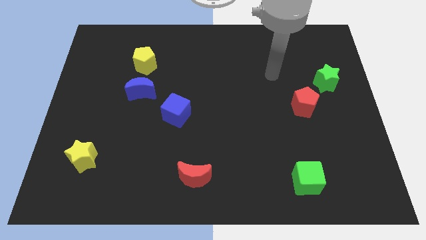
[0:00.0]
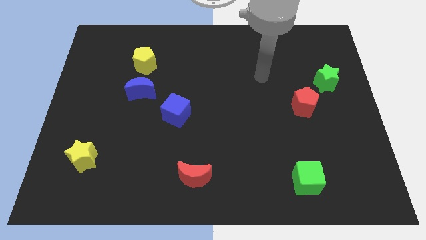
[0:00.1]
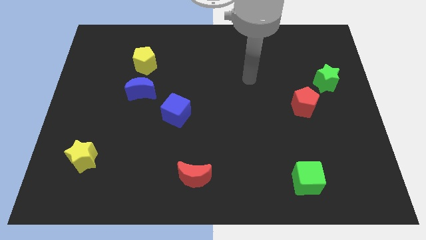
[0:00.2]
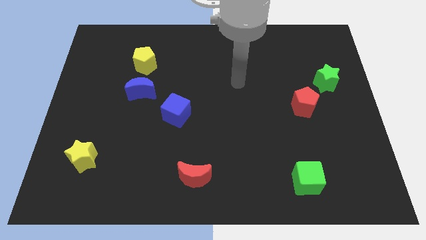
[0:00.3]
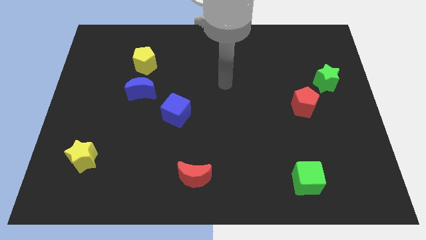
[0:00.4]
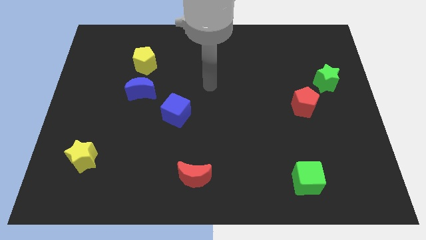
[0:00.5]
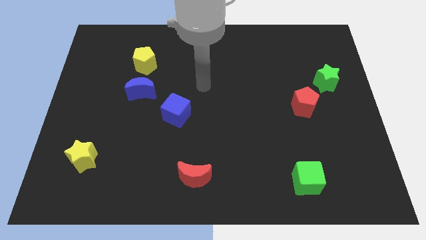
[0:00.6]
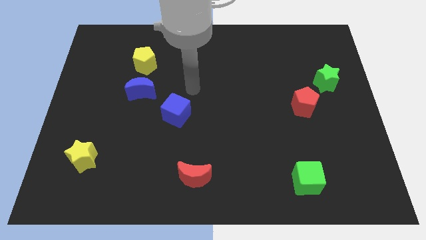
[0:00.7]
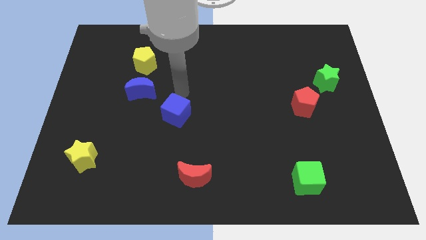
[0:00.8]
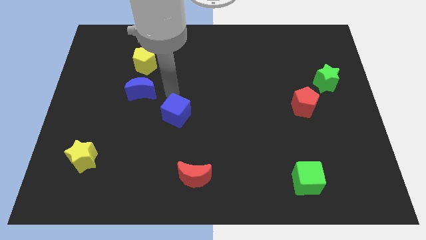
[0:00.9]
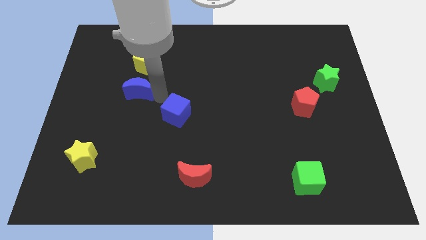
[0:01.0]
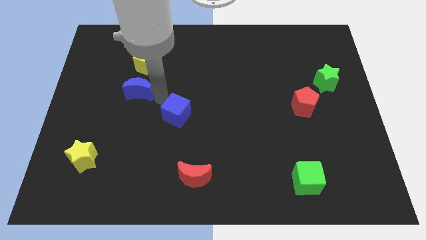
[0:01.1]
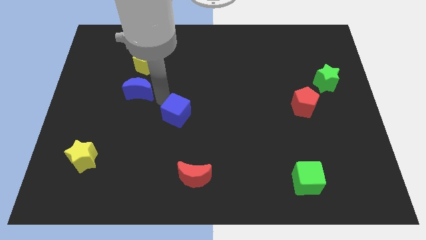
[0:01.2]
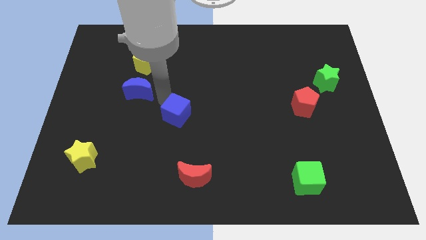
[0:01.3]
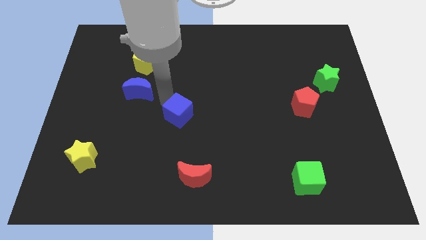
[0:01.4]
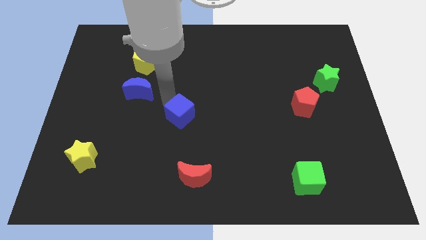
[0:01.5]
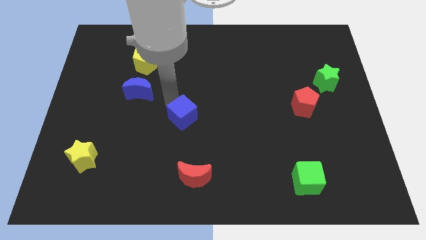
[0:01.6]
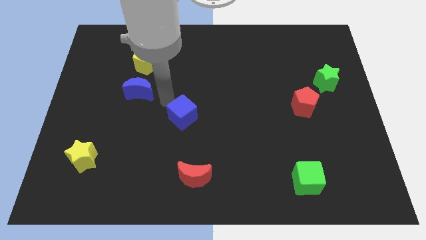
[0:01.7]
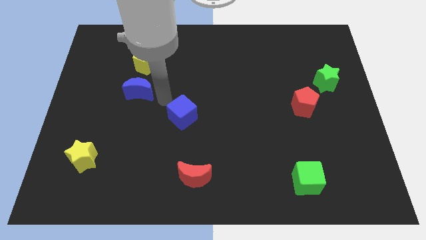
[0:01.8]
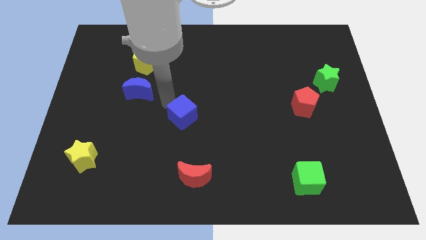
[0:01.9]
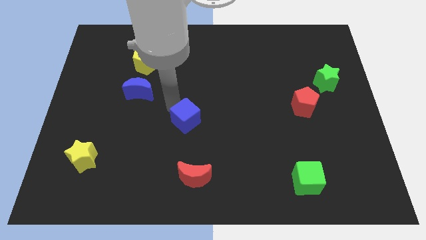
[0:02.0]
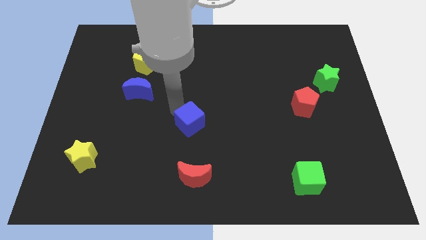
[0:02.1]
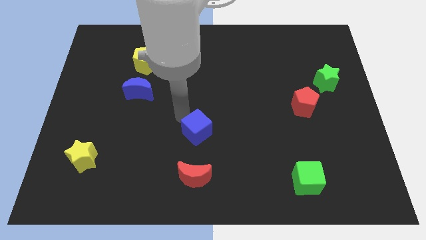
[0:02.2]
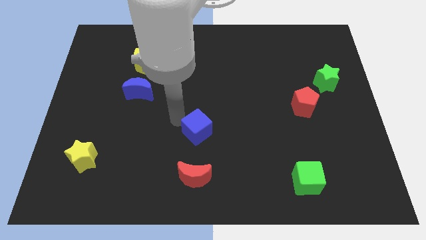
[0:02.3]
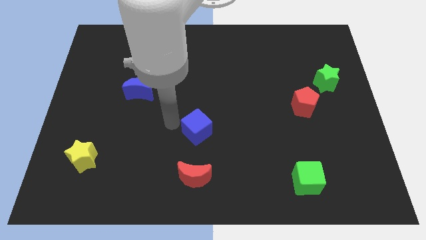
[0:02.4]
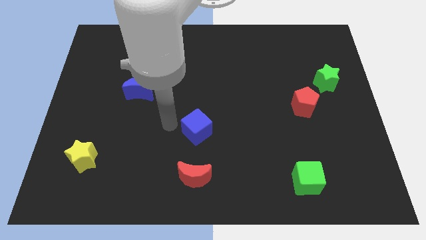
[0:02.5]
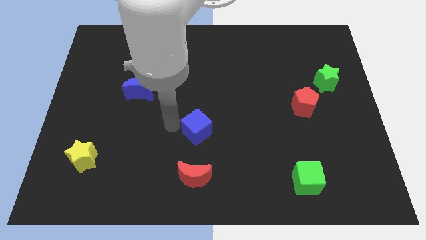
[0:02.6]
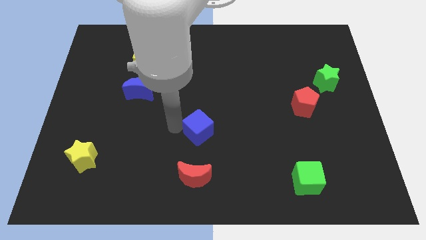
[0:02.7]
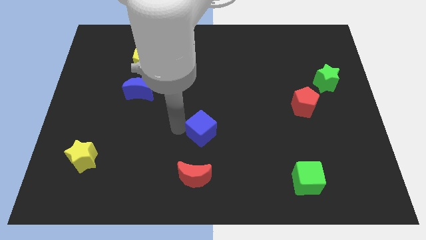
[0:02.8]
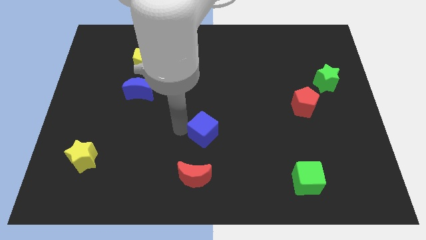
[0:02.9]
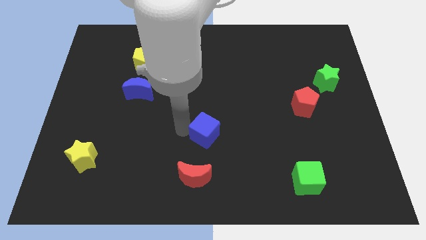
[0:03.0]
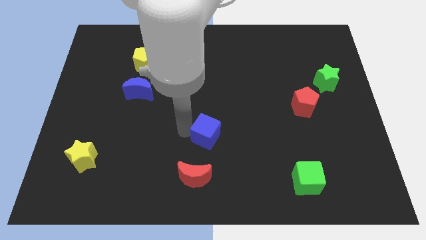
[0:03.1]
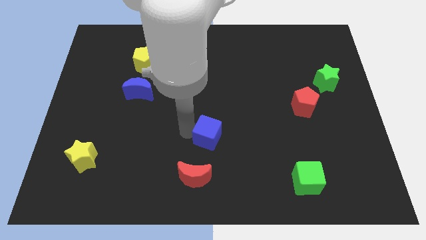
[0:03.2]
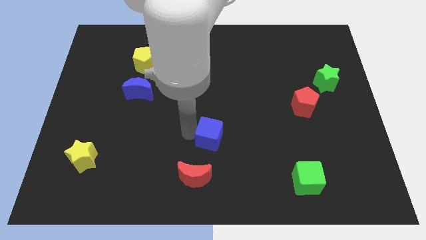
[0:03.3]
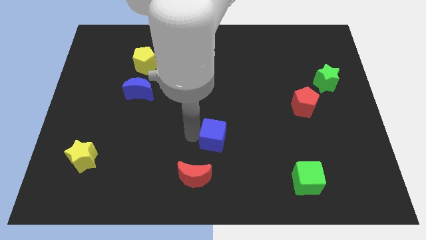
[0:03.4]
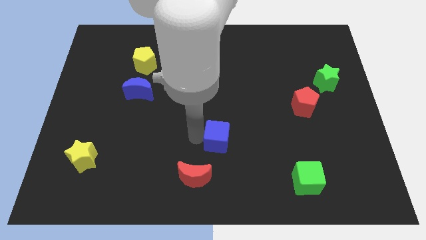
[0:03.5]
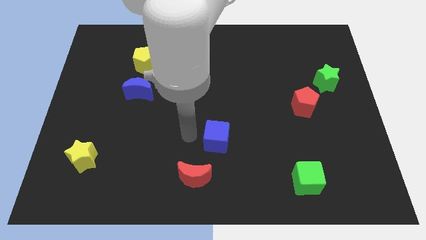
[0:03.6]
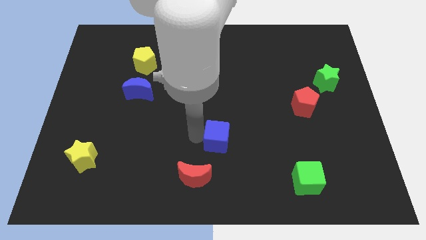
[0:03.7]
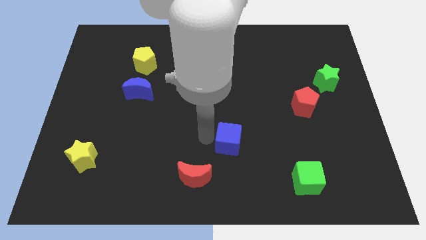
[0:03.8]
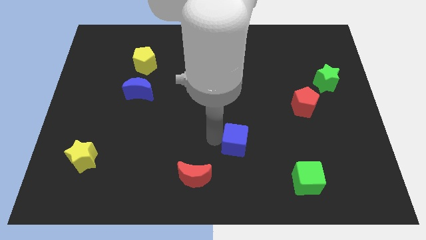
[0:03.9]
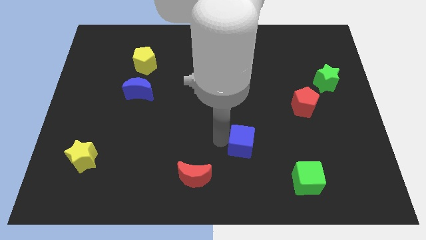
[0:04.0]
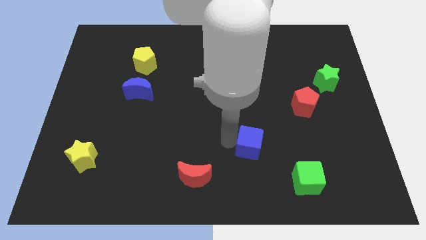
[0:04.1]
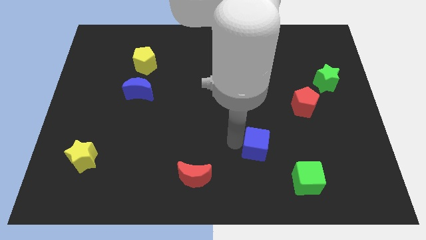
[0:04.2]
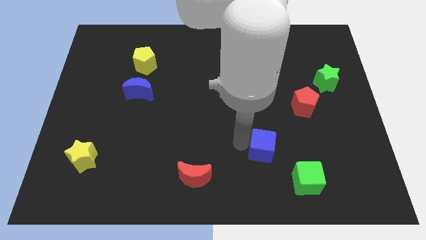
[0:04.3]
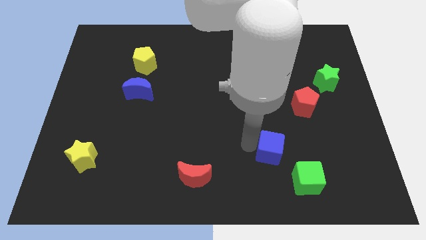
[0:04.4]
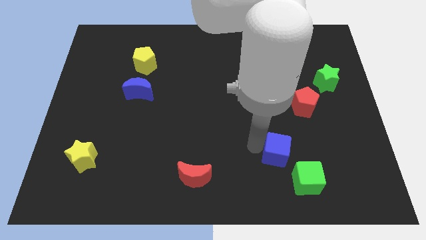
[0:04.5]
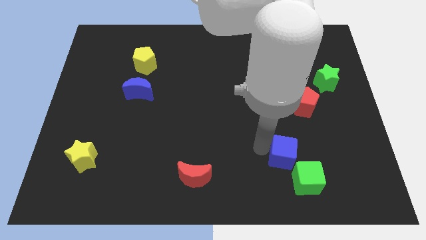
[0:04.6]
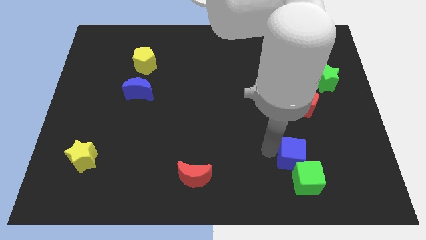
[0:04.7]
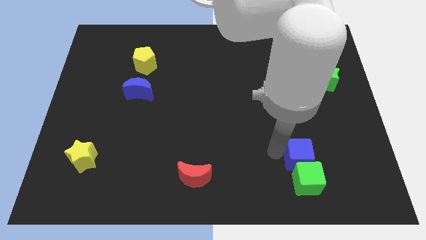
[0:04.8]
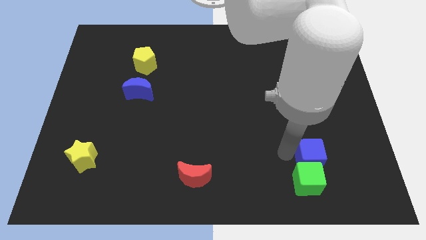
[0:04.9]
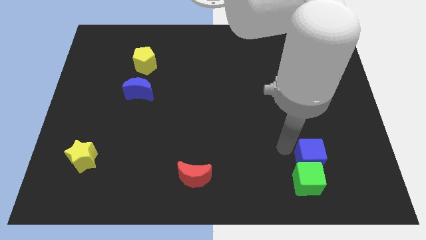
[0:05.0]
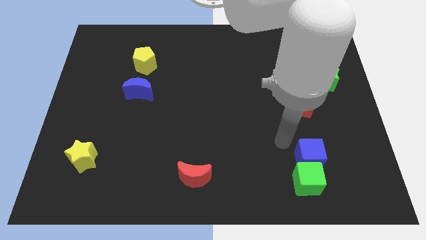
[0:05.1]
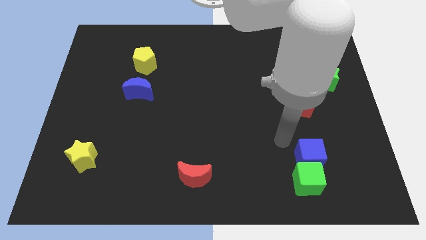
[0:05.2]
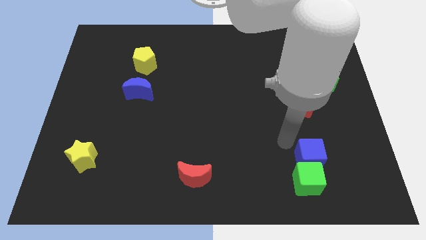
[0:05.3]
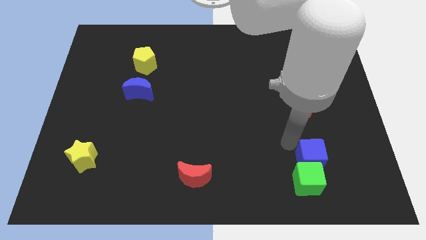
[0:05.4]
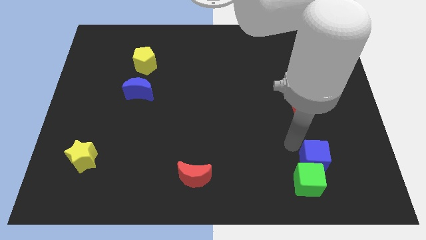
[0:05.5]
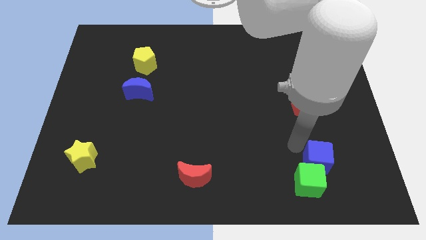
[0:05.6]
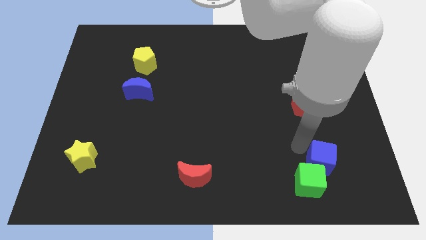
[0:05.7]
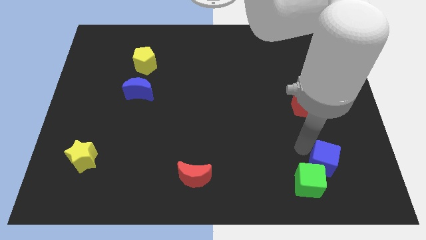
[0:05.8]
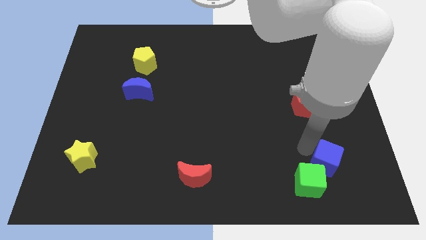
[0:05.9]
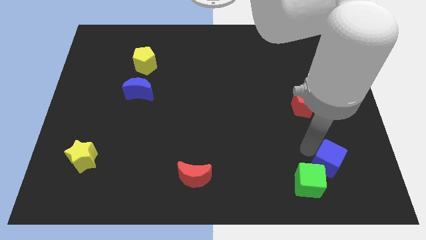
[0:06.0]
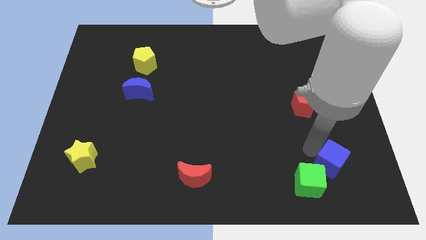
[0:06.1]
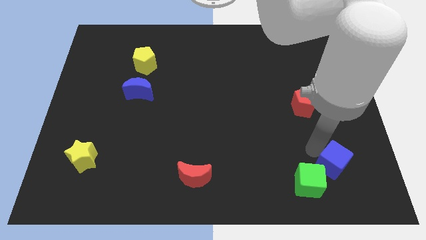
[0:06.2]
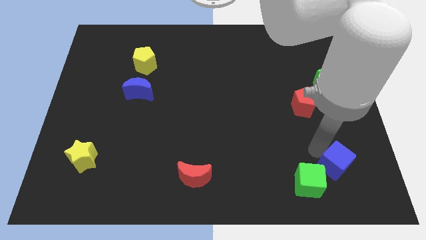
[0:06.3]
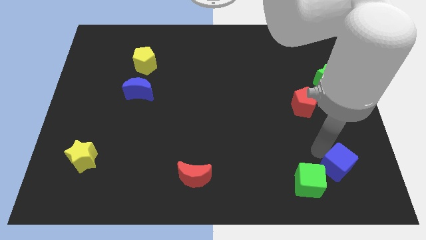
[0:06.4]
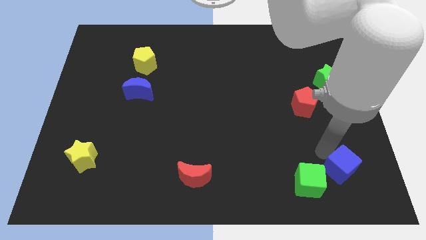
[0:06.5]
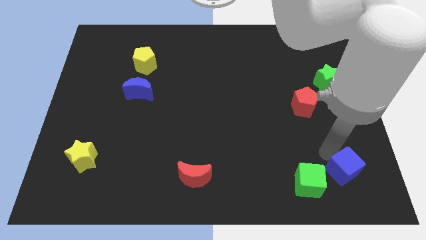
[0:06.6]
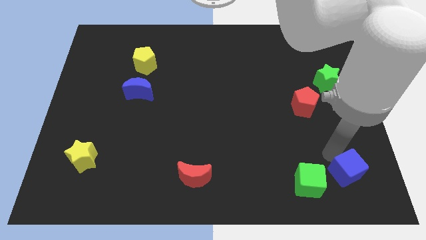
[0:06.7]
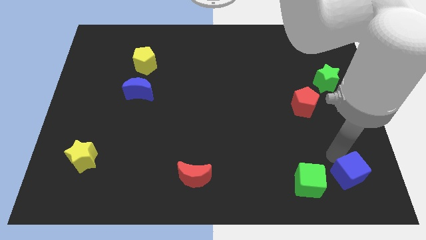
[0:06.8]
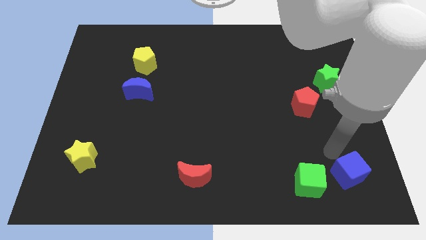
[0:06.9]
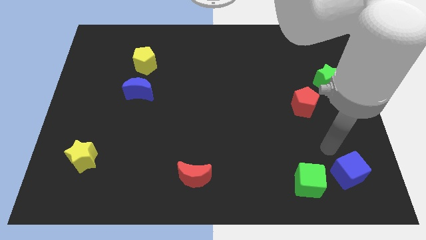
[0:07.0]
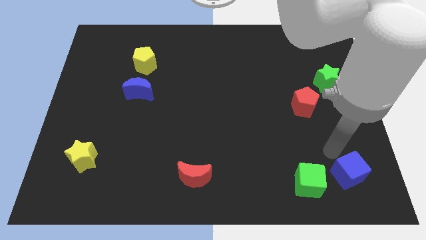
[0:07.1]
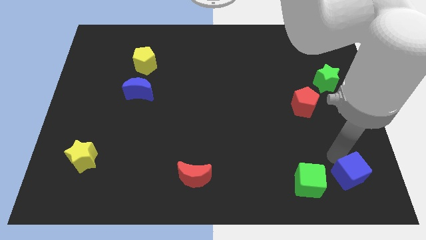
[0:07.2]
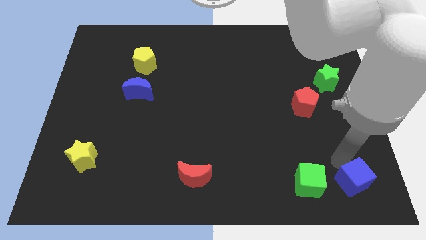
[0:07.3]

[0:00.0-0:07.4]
move the blue cube to the bottom right of the board
